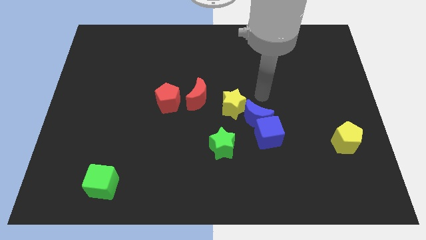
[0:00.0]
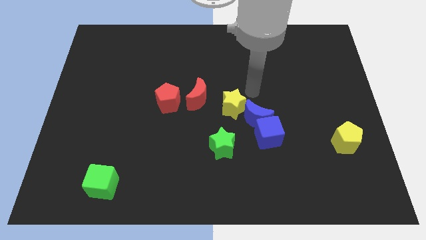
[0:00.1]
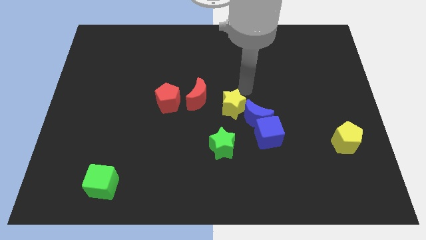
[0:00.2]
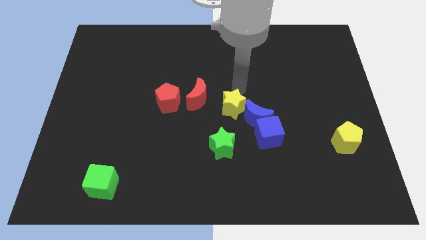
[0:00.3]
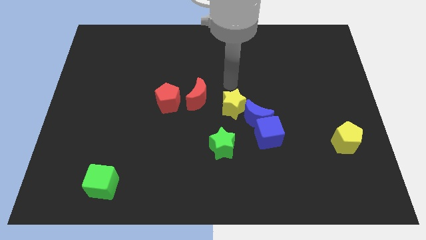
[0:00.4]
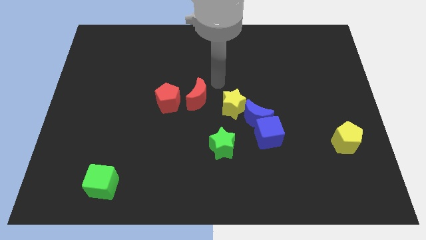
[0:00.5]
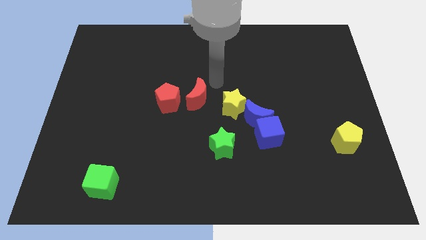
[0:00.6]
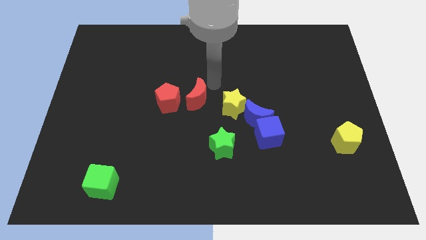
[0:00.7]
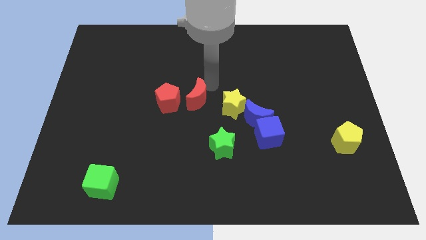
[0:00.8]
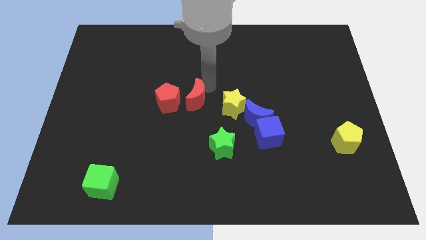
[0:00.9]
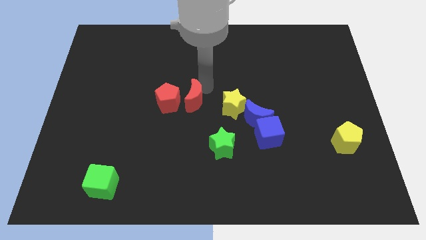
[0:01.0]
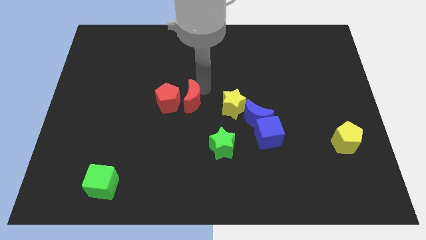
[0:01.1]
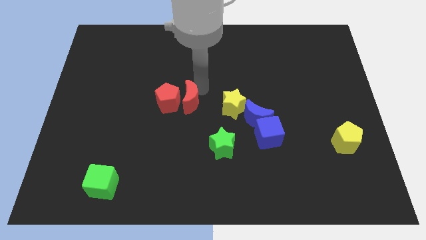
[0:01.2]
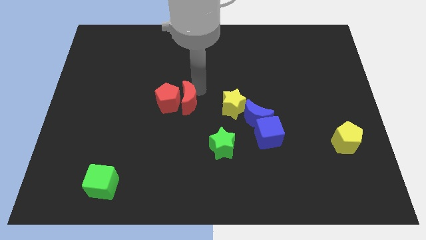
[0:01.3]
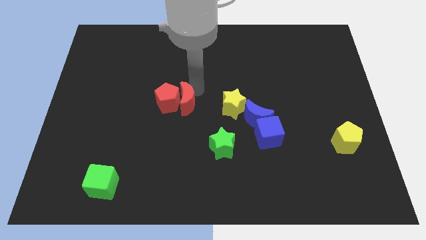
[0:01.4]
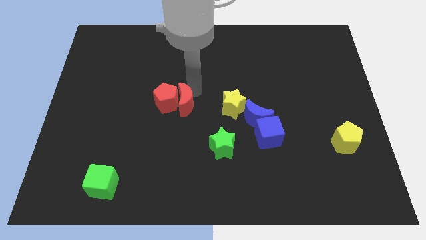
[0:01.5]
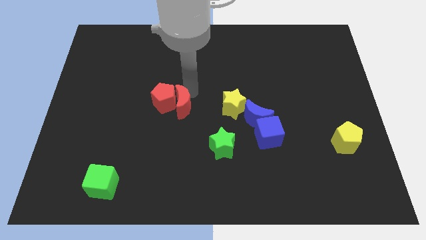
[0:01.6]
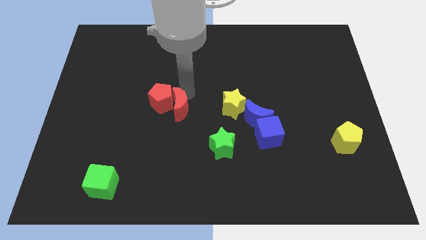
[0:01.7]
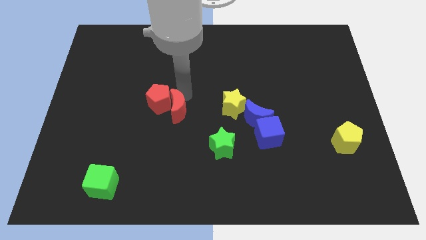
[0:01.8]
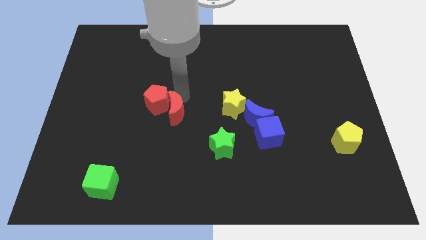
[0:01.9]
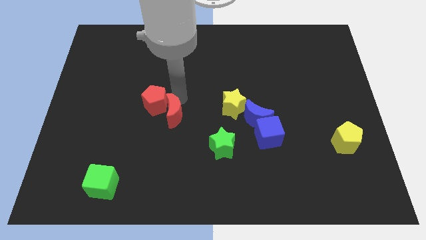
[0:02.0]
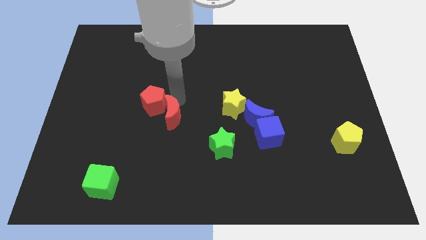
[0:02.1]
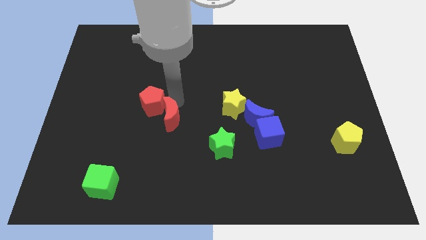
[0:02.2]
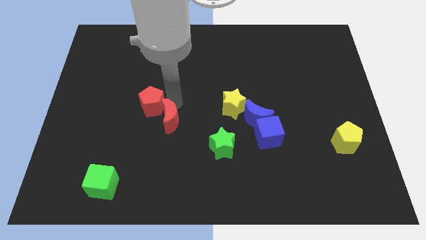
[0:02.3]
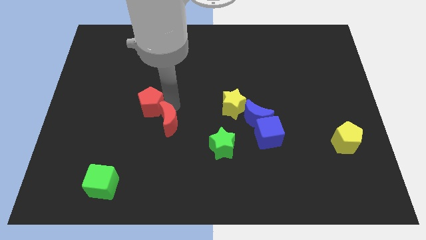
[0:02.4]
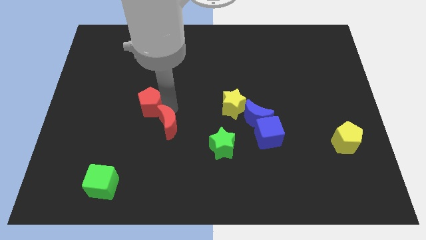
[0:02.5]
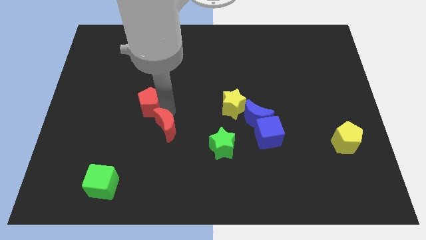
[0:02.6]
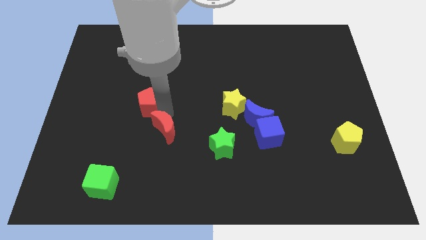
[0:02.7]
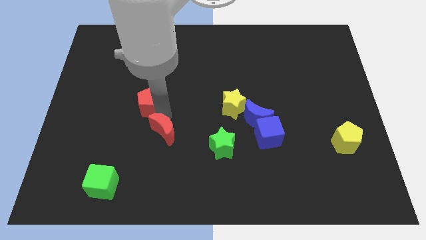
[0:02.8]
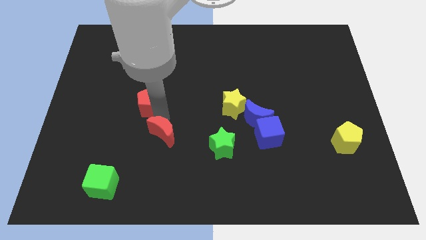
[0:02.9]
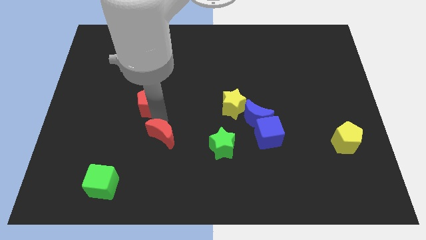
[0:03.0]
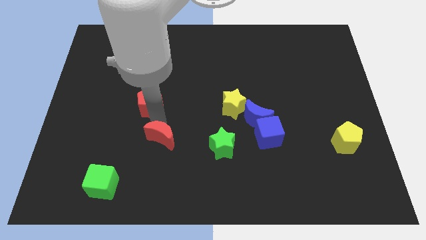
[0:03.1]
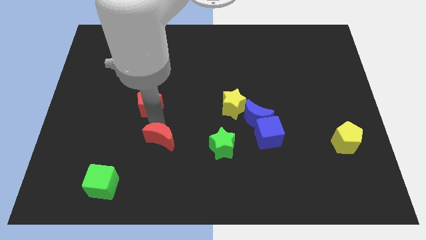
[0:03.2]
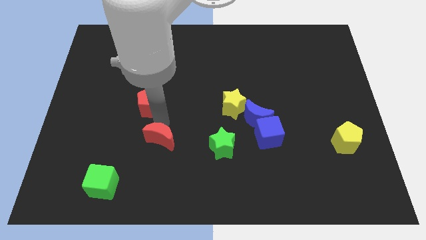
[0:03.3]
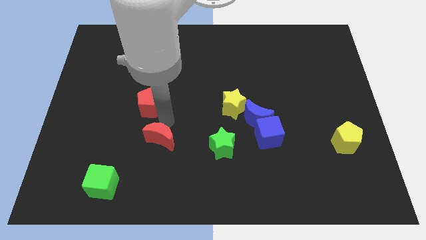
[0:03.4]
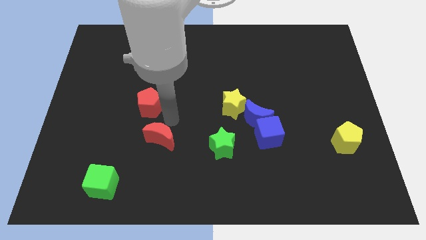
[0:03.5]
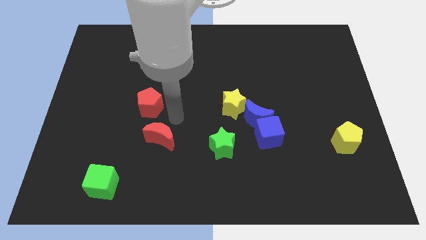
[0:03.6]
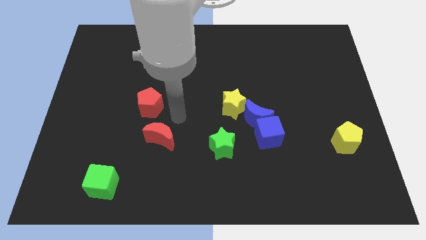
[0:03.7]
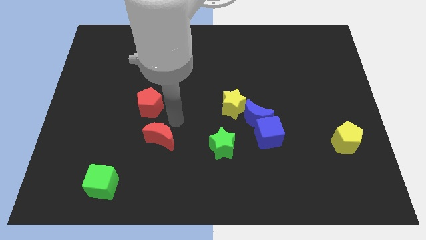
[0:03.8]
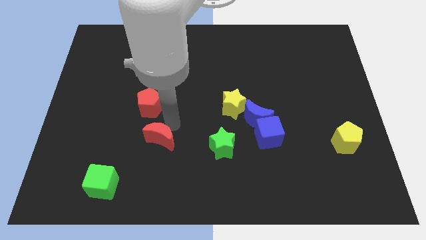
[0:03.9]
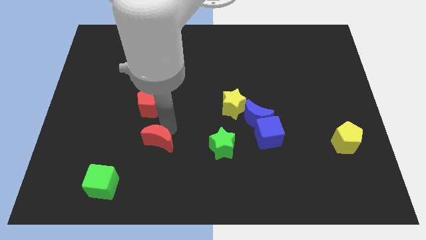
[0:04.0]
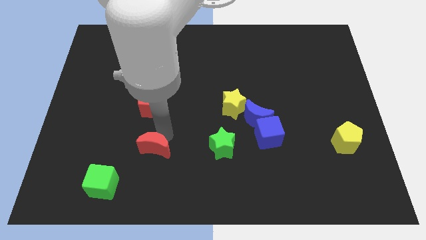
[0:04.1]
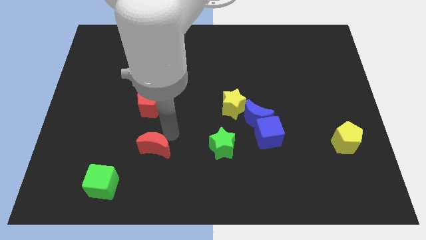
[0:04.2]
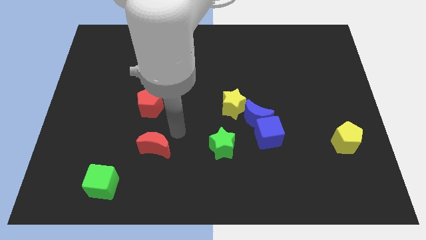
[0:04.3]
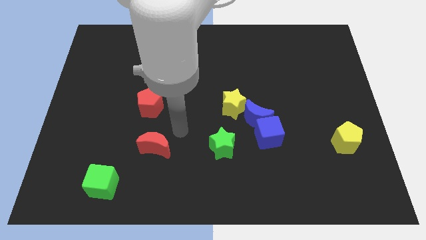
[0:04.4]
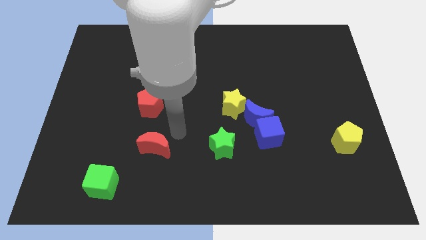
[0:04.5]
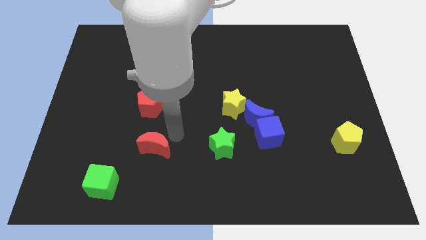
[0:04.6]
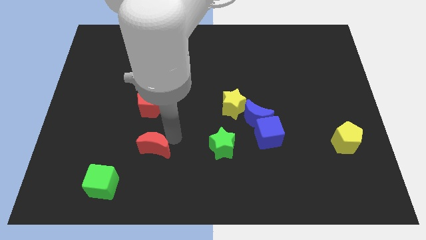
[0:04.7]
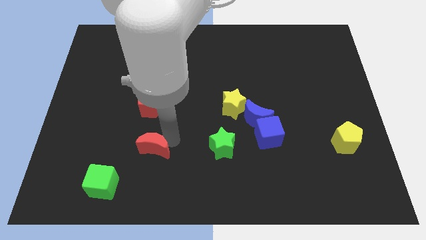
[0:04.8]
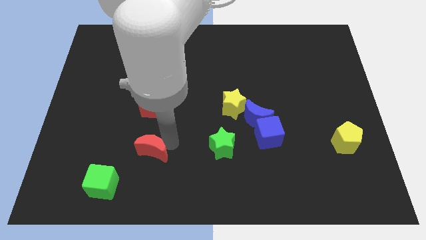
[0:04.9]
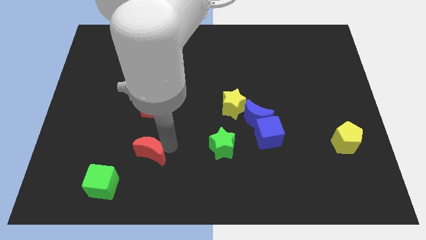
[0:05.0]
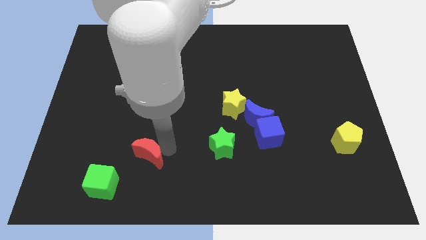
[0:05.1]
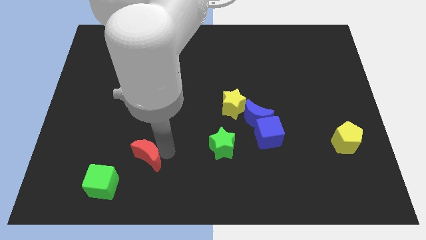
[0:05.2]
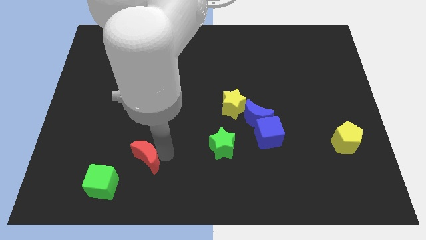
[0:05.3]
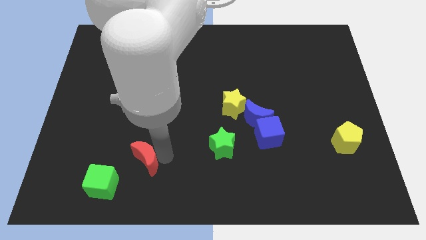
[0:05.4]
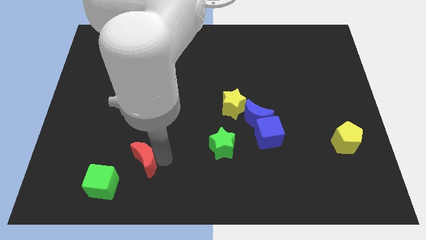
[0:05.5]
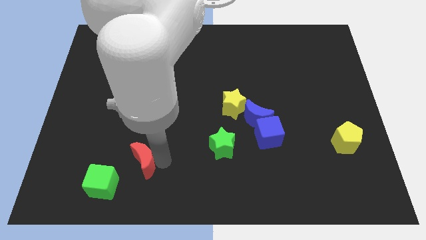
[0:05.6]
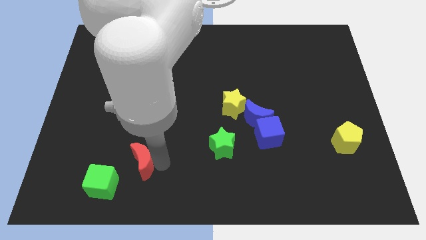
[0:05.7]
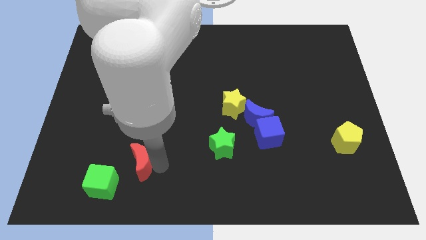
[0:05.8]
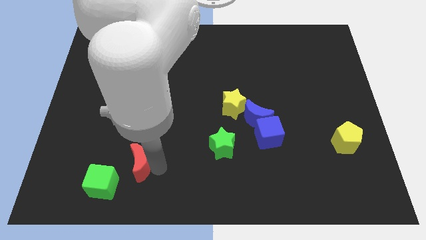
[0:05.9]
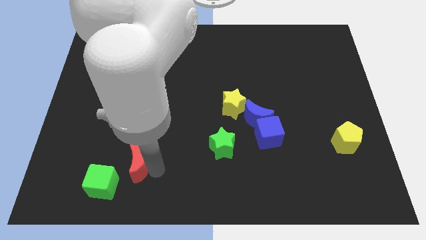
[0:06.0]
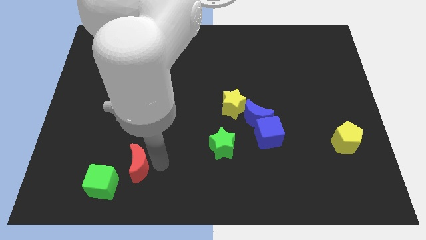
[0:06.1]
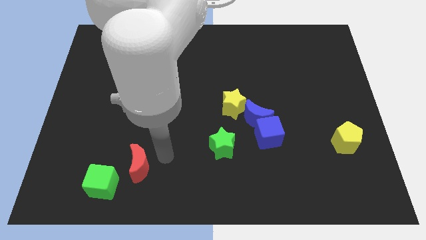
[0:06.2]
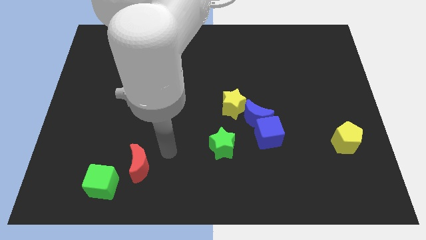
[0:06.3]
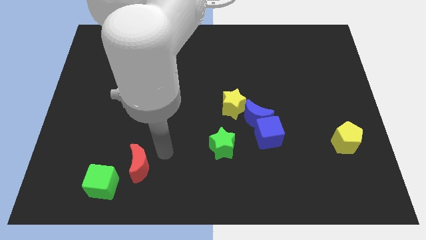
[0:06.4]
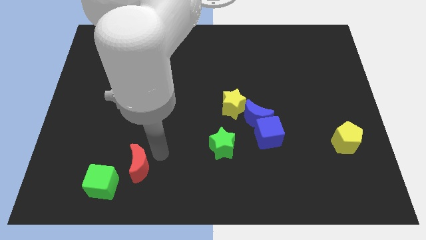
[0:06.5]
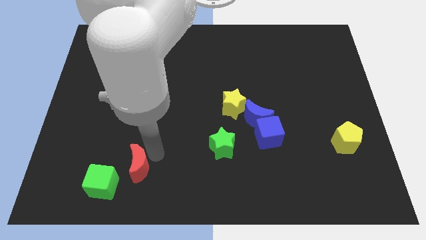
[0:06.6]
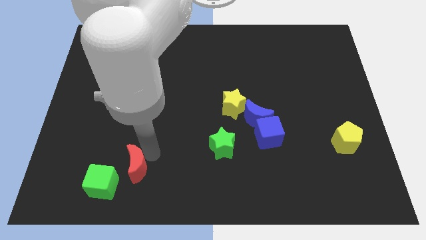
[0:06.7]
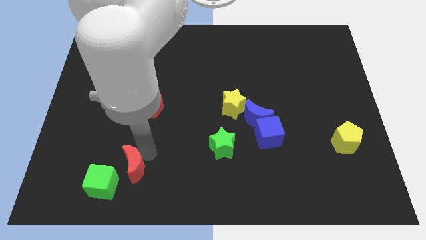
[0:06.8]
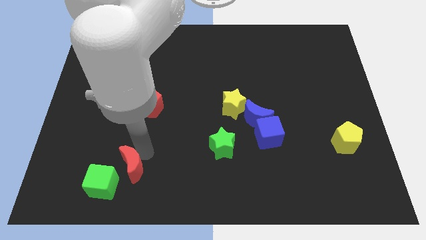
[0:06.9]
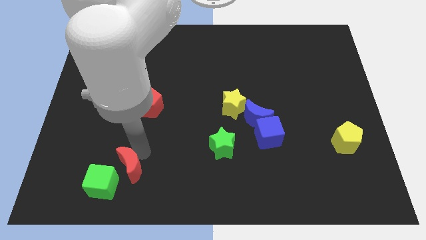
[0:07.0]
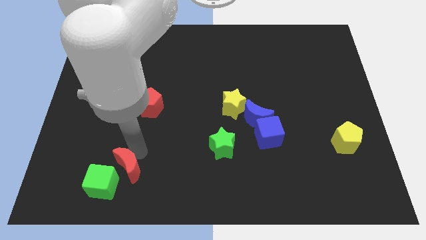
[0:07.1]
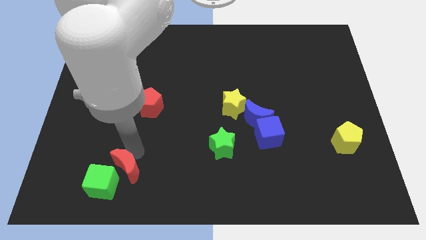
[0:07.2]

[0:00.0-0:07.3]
push the red moon towards the green cube
